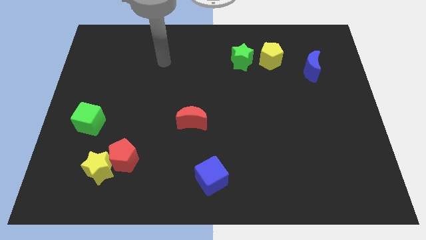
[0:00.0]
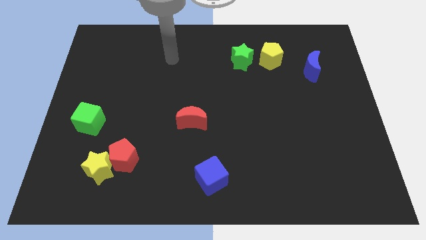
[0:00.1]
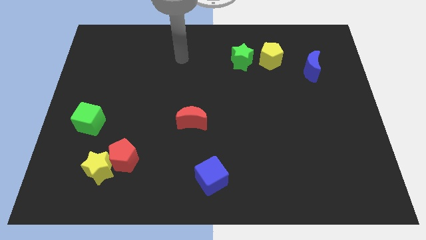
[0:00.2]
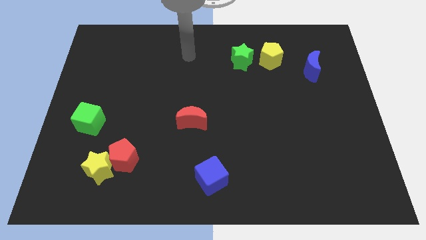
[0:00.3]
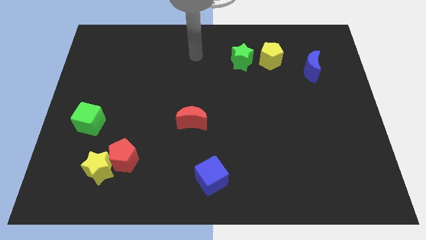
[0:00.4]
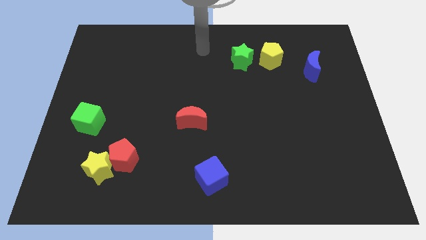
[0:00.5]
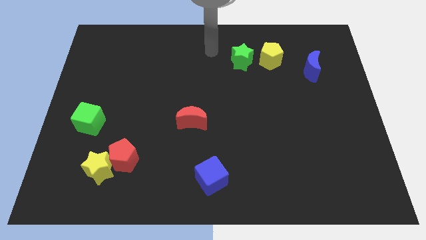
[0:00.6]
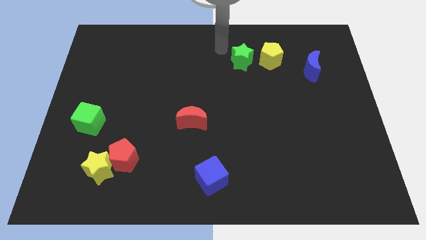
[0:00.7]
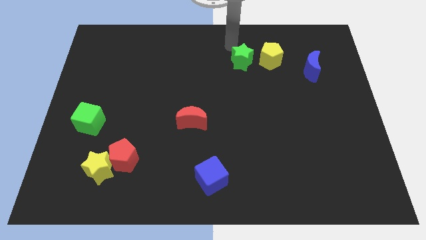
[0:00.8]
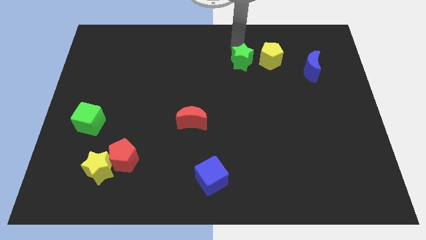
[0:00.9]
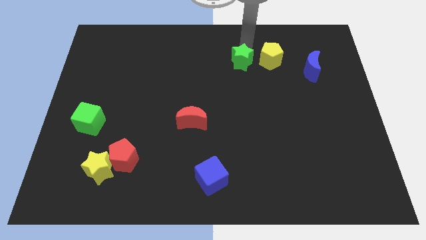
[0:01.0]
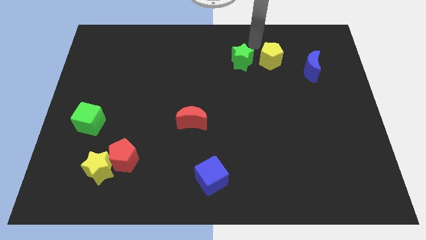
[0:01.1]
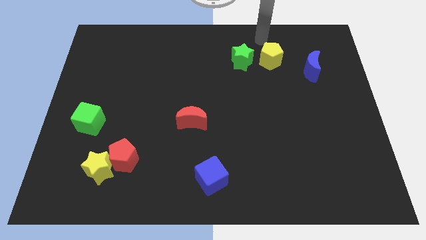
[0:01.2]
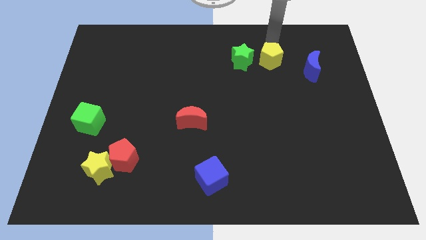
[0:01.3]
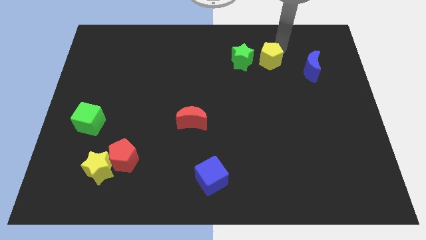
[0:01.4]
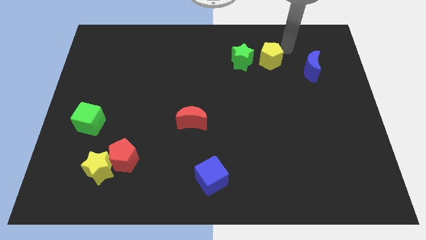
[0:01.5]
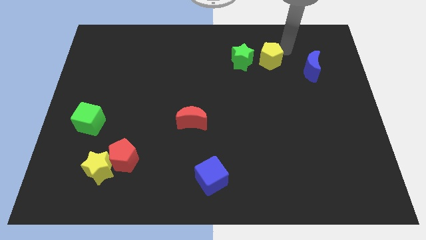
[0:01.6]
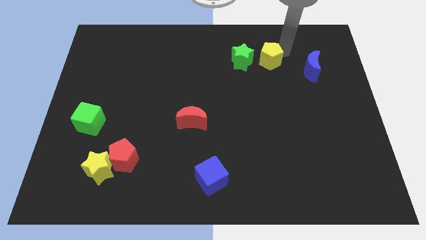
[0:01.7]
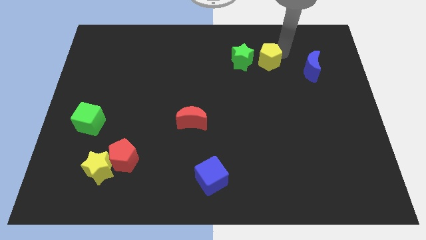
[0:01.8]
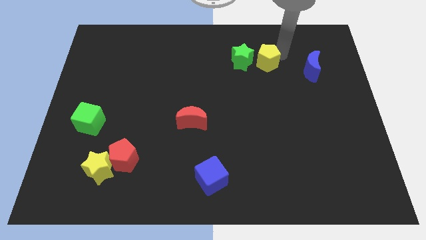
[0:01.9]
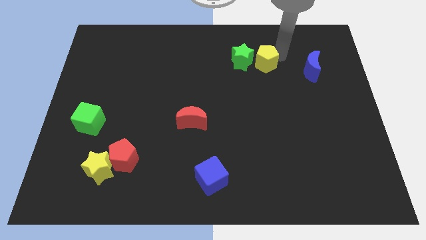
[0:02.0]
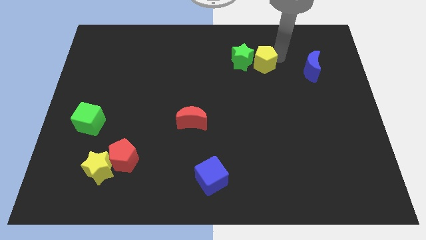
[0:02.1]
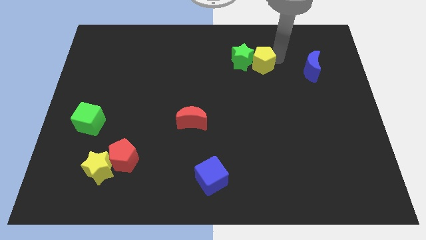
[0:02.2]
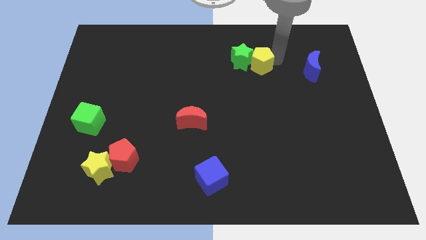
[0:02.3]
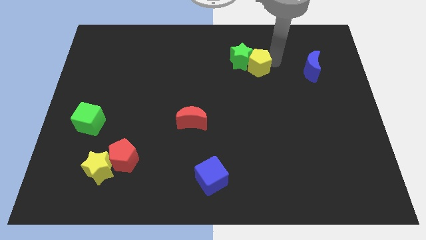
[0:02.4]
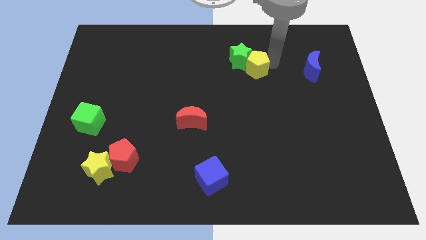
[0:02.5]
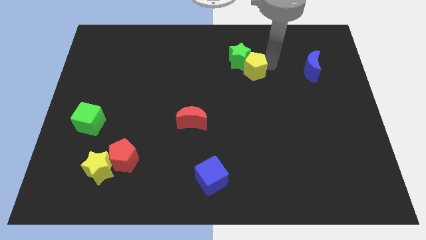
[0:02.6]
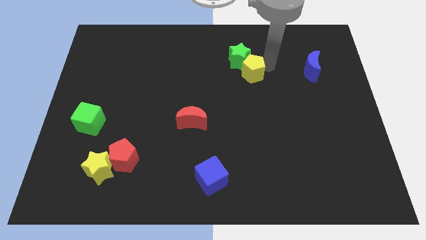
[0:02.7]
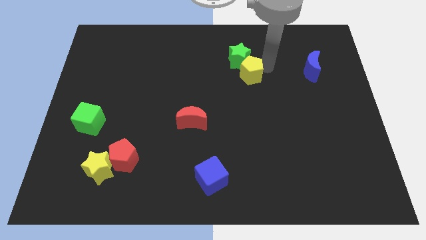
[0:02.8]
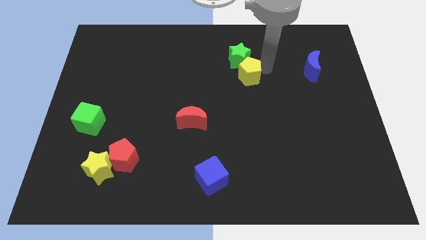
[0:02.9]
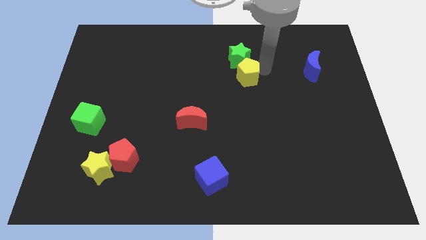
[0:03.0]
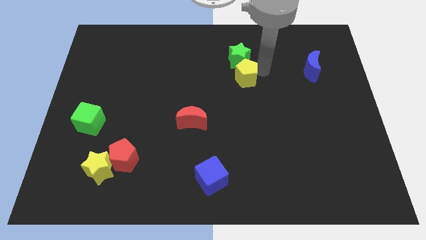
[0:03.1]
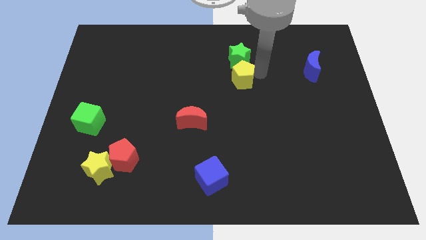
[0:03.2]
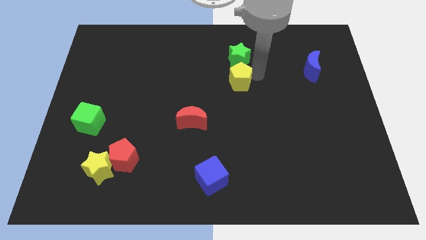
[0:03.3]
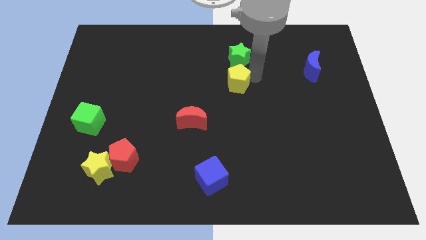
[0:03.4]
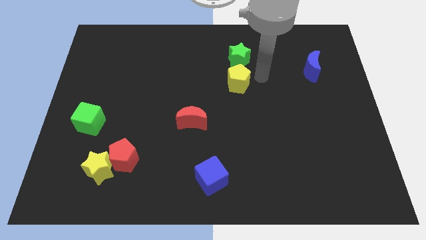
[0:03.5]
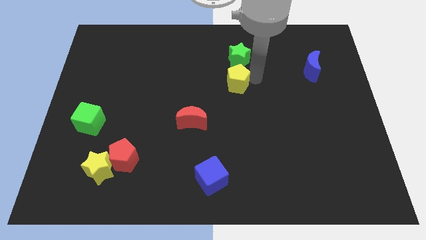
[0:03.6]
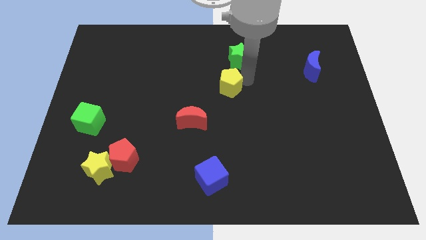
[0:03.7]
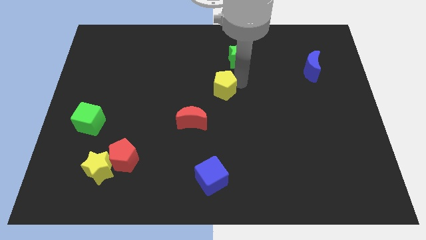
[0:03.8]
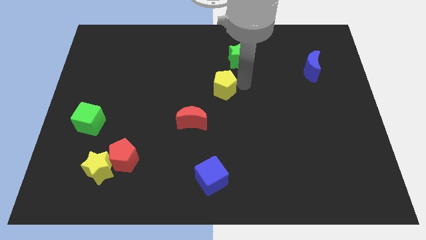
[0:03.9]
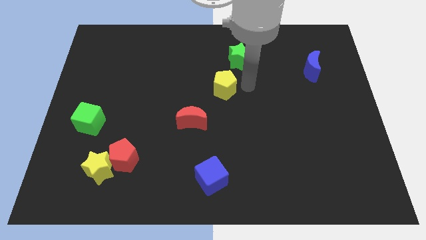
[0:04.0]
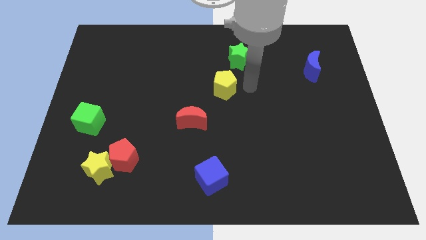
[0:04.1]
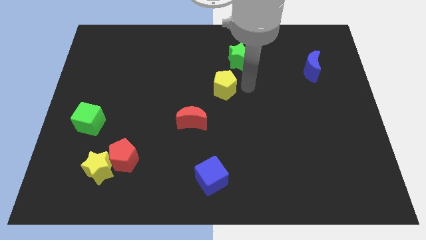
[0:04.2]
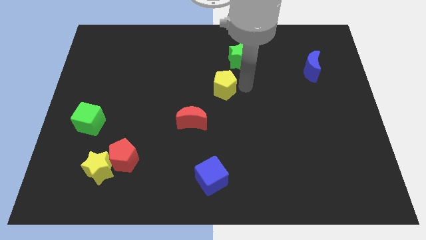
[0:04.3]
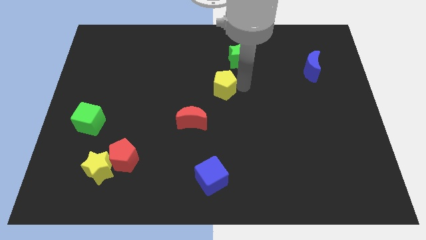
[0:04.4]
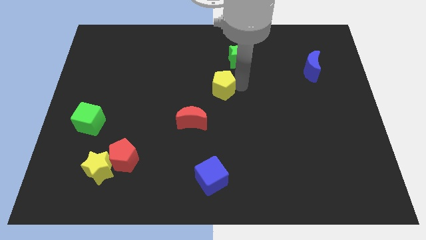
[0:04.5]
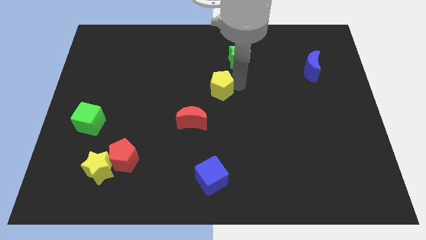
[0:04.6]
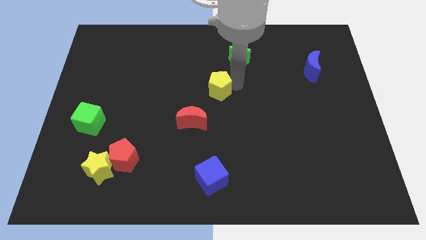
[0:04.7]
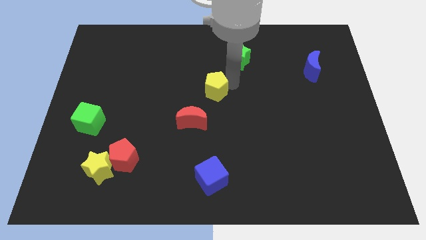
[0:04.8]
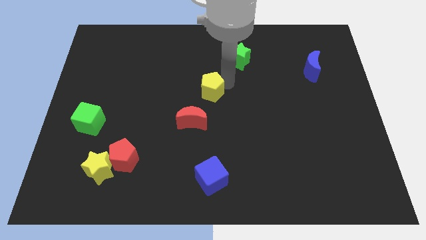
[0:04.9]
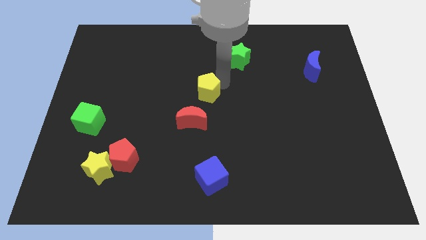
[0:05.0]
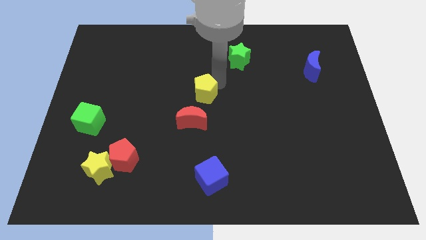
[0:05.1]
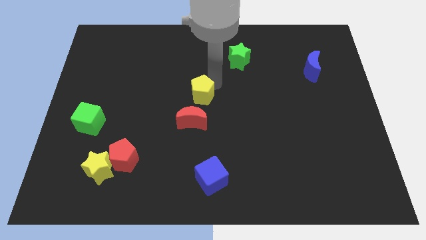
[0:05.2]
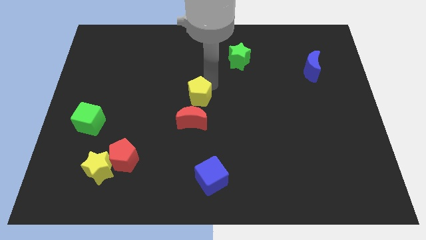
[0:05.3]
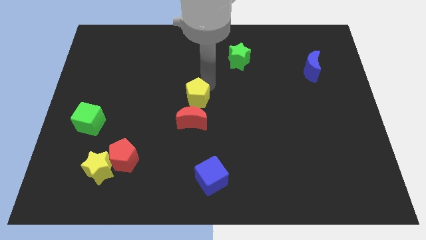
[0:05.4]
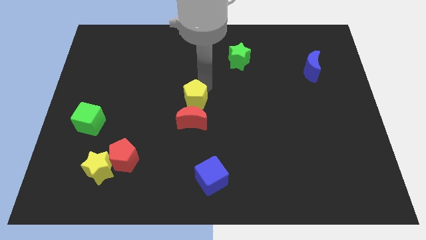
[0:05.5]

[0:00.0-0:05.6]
put the yellow pentagon to the top left side of the red moon

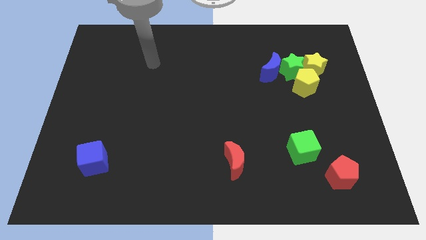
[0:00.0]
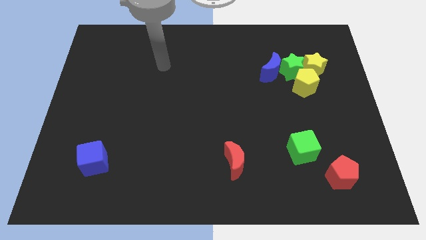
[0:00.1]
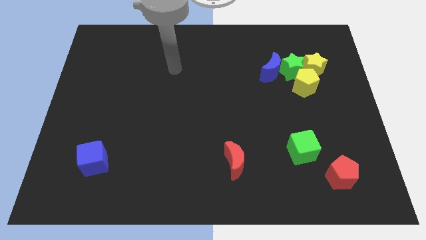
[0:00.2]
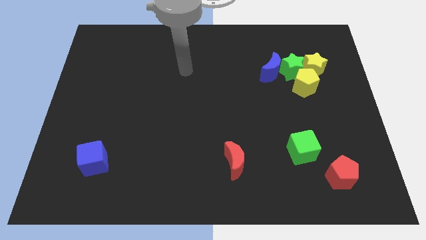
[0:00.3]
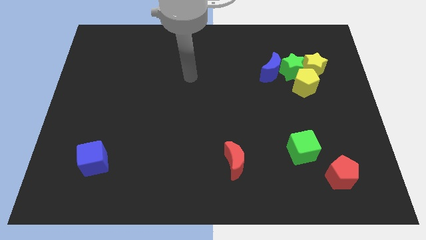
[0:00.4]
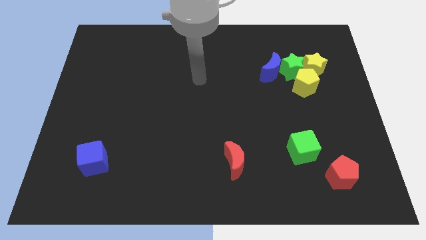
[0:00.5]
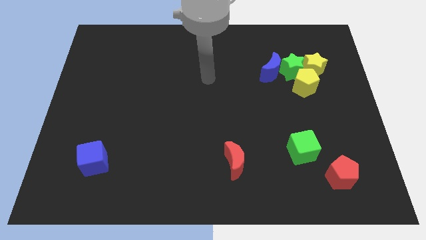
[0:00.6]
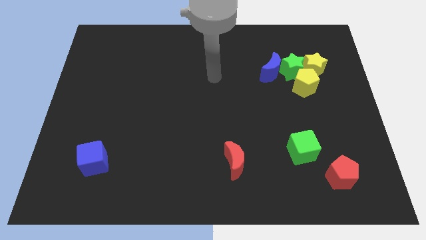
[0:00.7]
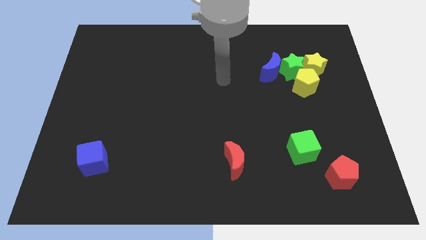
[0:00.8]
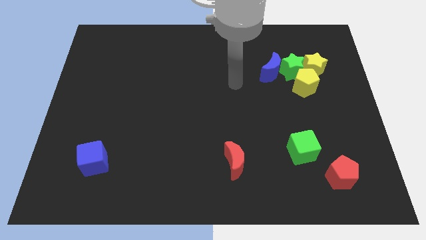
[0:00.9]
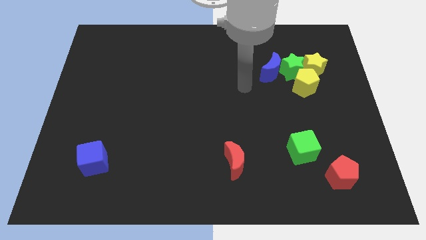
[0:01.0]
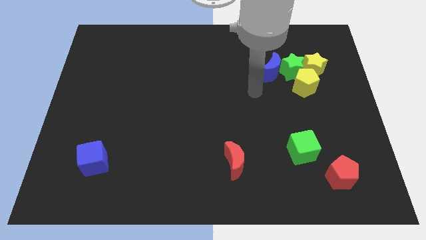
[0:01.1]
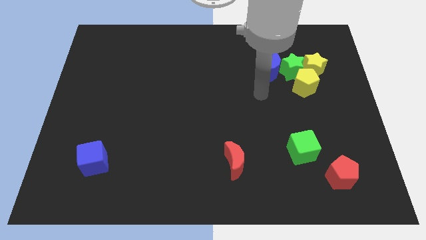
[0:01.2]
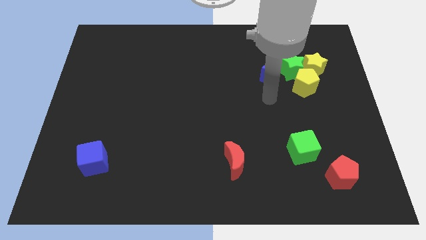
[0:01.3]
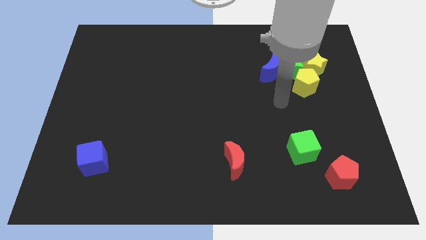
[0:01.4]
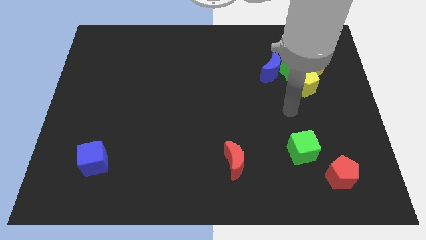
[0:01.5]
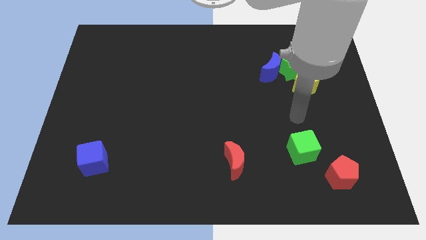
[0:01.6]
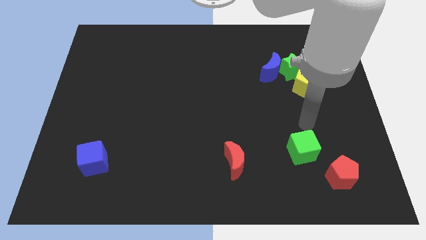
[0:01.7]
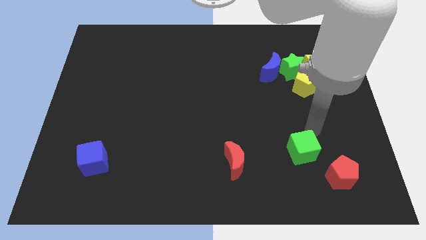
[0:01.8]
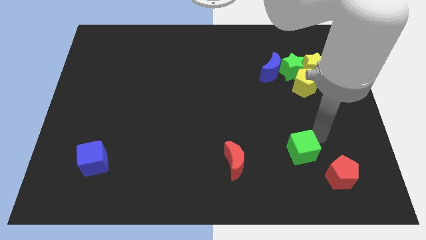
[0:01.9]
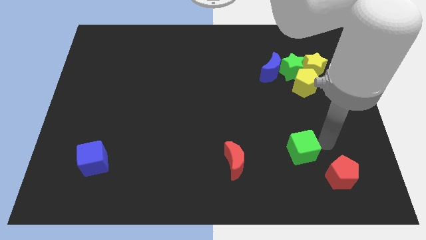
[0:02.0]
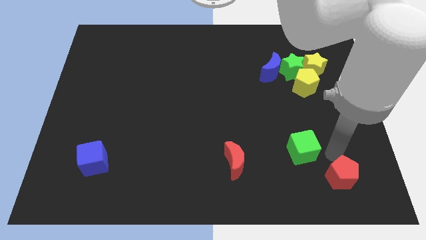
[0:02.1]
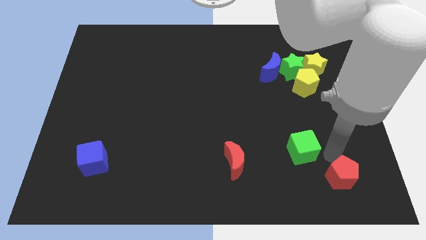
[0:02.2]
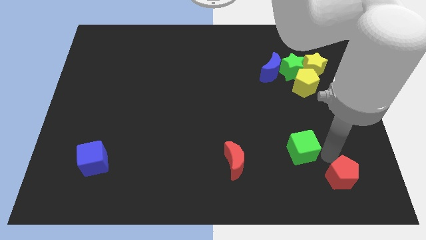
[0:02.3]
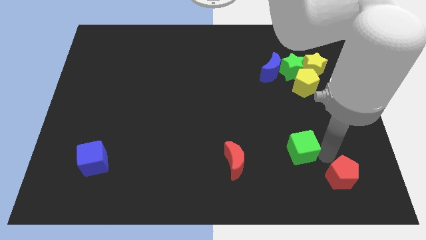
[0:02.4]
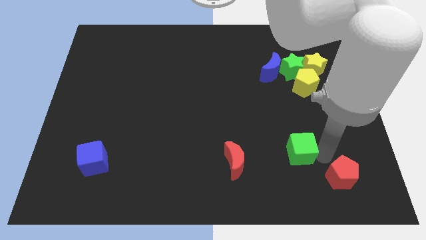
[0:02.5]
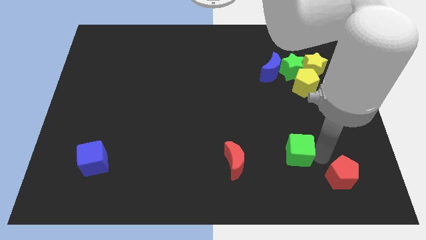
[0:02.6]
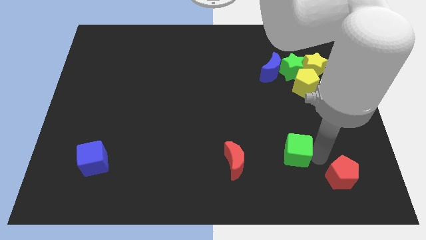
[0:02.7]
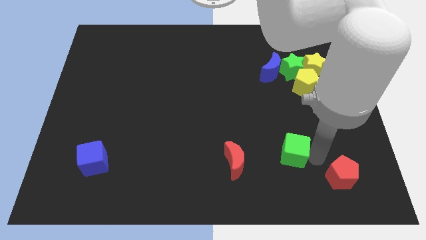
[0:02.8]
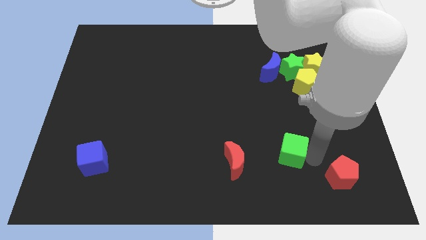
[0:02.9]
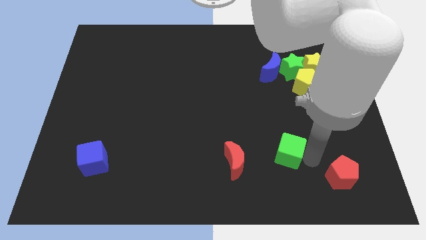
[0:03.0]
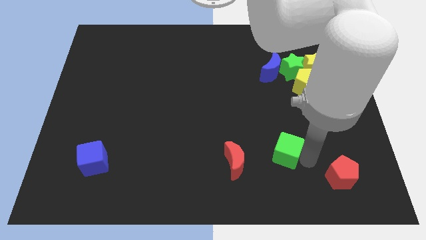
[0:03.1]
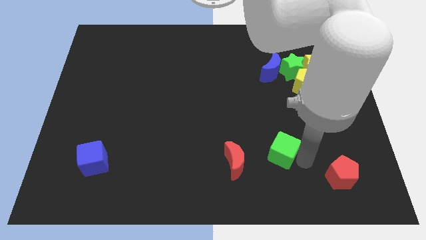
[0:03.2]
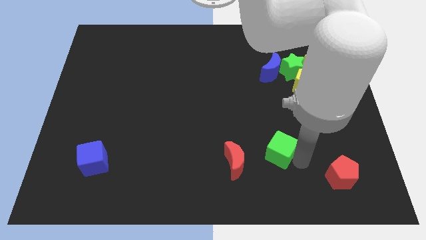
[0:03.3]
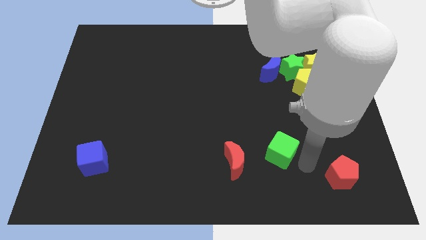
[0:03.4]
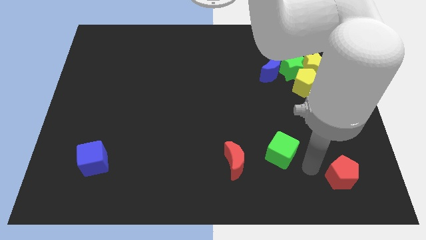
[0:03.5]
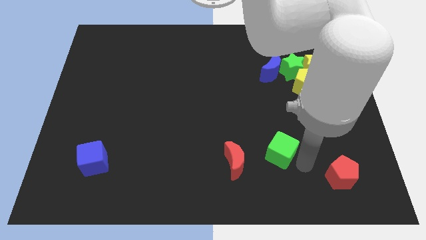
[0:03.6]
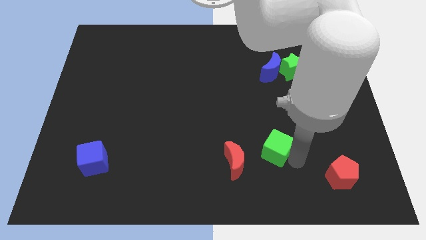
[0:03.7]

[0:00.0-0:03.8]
push the green cube to the top right side of the red moon
